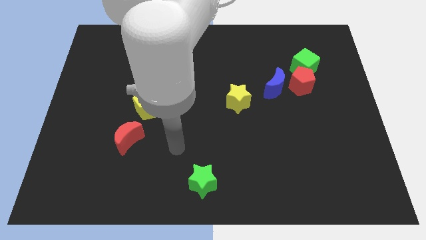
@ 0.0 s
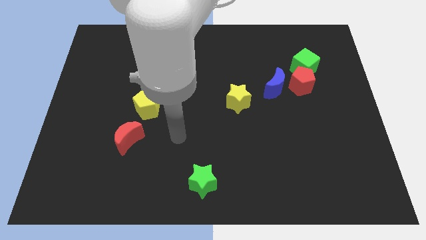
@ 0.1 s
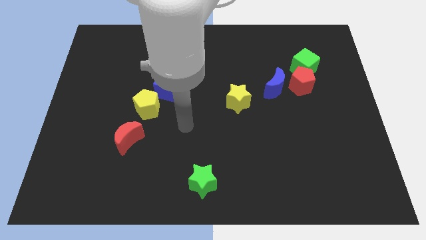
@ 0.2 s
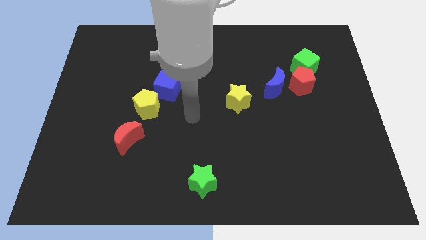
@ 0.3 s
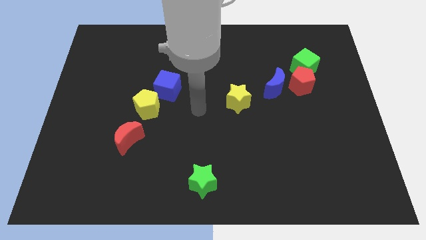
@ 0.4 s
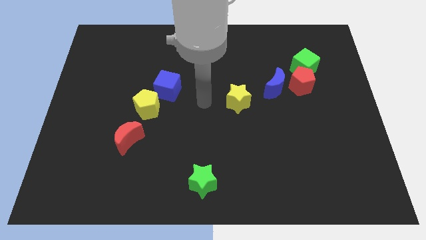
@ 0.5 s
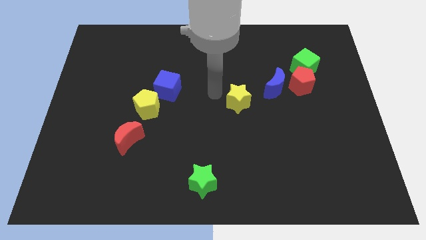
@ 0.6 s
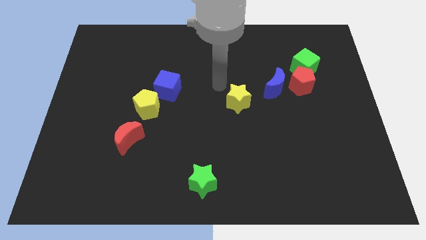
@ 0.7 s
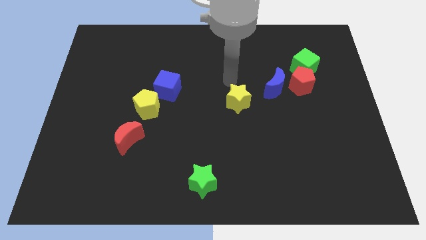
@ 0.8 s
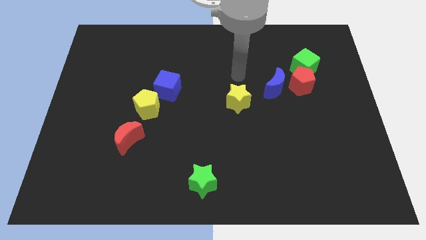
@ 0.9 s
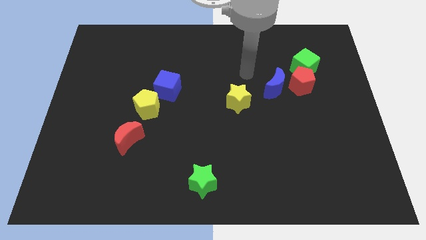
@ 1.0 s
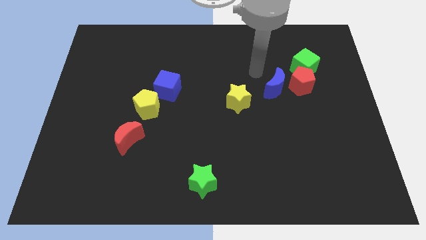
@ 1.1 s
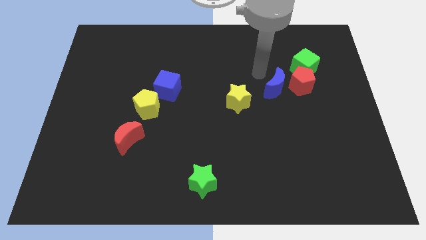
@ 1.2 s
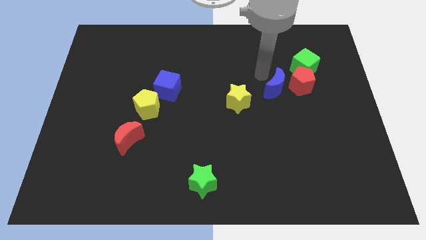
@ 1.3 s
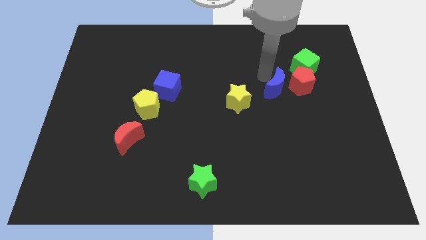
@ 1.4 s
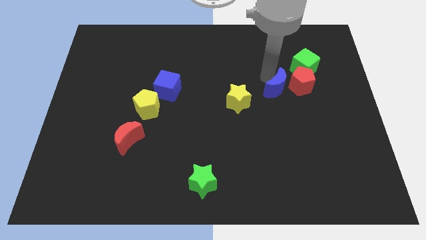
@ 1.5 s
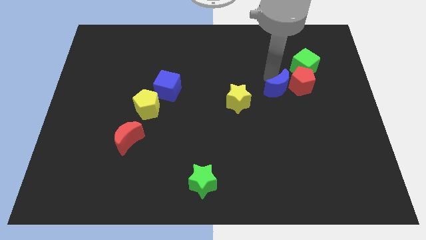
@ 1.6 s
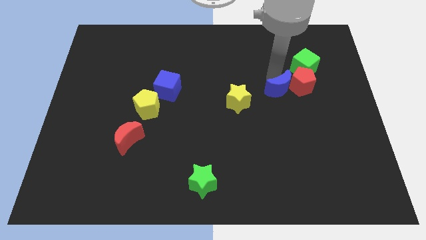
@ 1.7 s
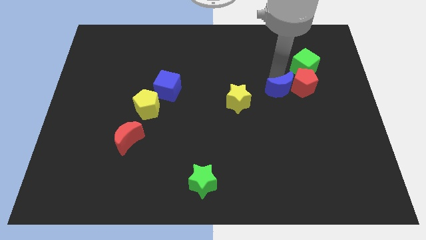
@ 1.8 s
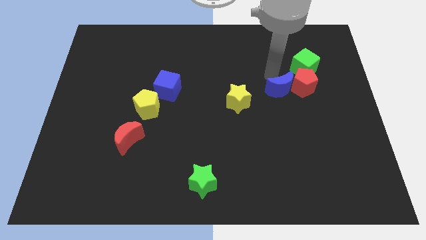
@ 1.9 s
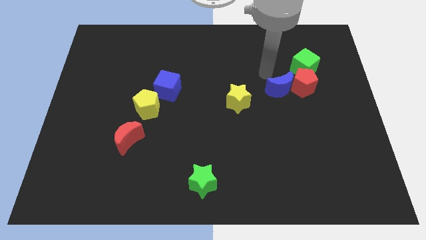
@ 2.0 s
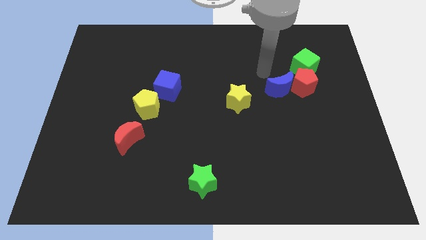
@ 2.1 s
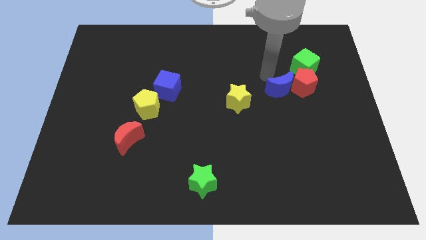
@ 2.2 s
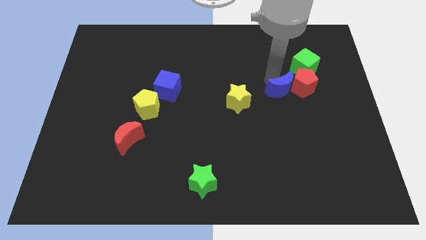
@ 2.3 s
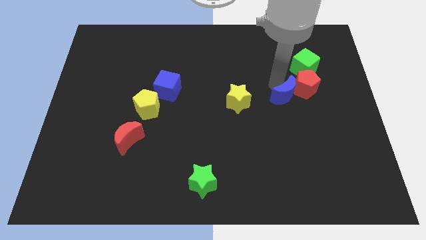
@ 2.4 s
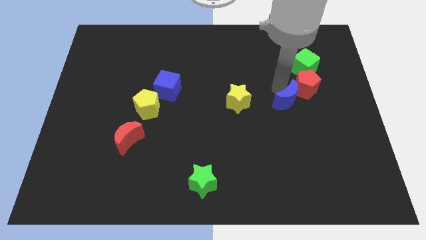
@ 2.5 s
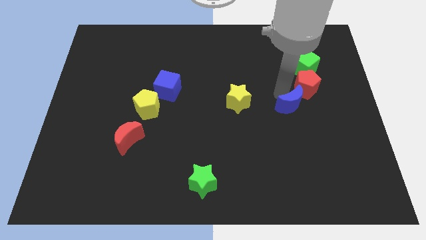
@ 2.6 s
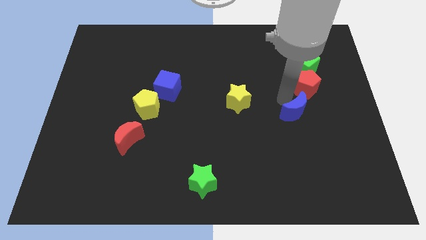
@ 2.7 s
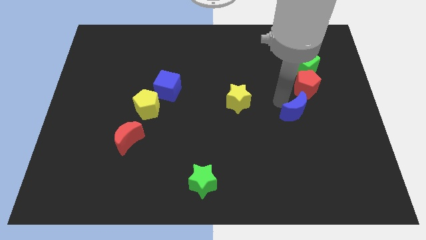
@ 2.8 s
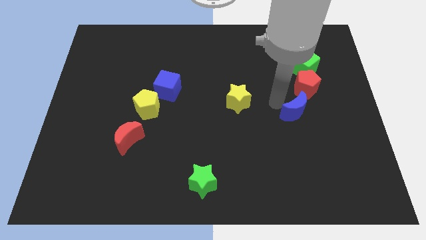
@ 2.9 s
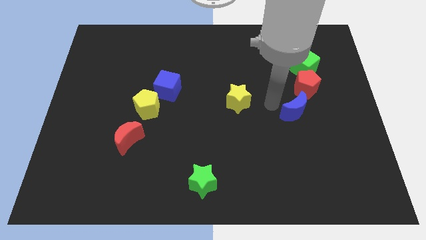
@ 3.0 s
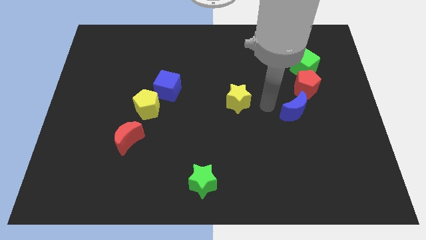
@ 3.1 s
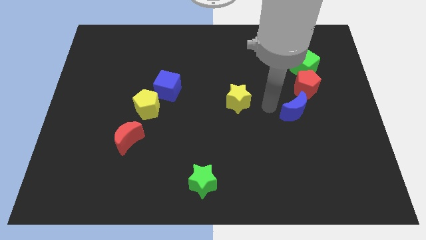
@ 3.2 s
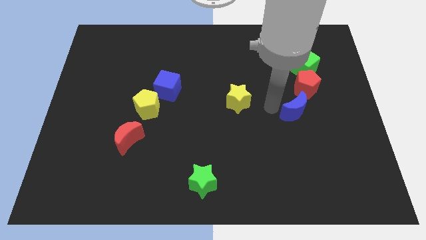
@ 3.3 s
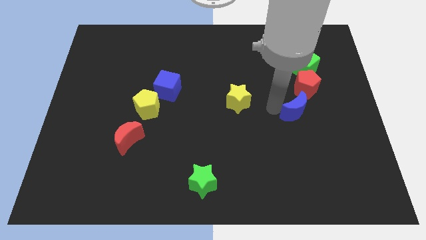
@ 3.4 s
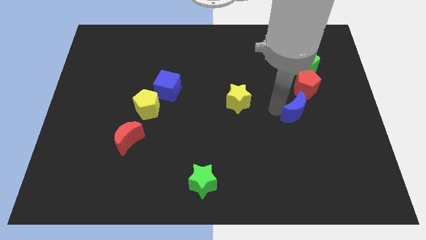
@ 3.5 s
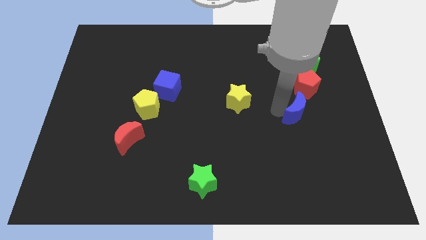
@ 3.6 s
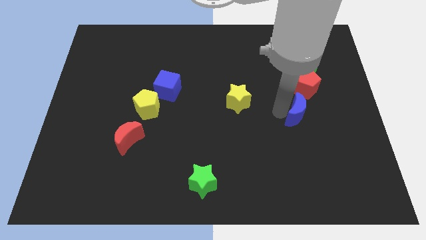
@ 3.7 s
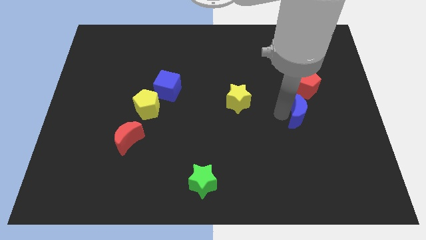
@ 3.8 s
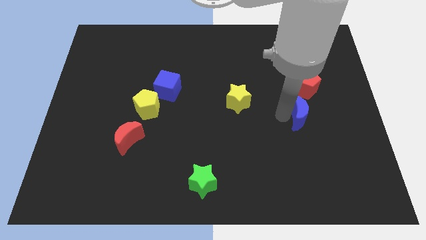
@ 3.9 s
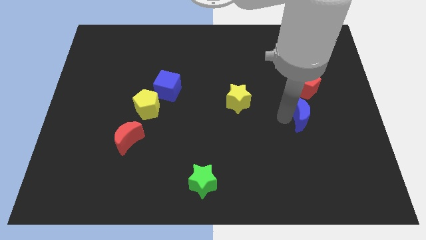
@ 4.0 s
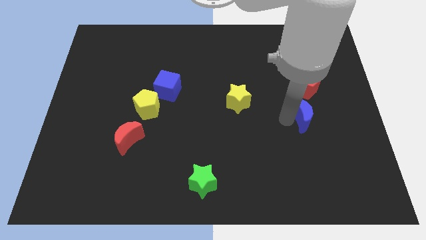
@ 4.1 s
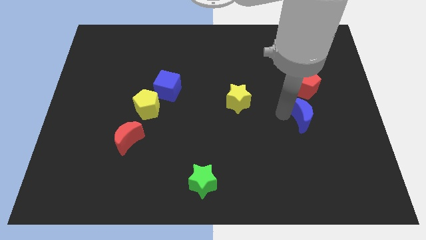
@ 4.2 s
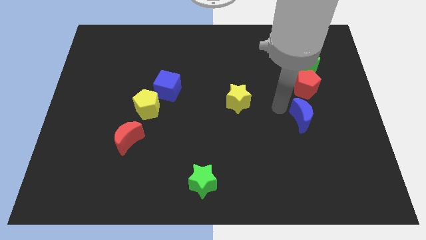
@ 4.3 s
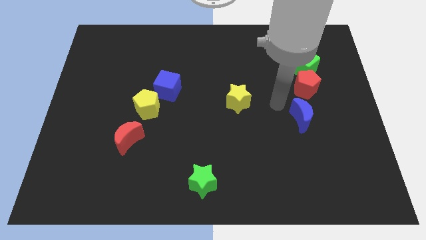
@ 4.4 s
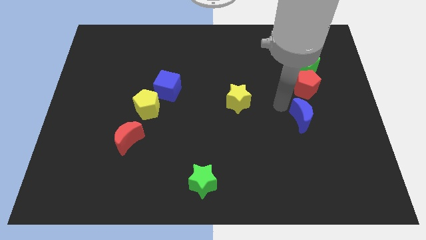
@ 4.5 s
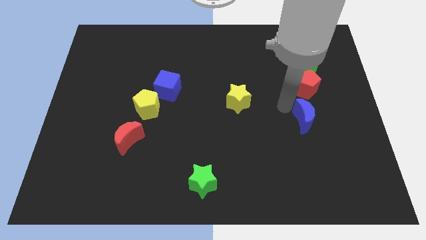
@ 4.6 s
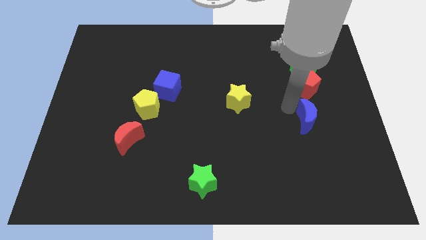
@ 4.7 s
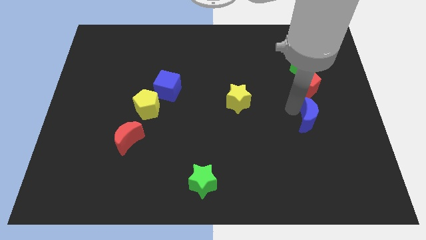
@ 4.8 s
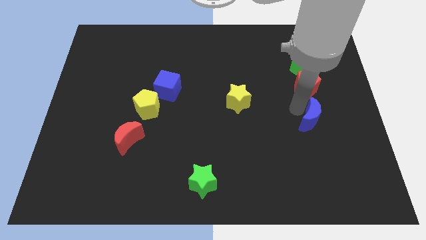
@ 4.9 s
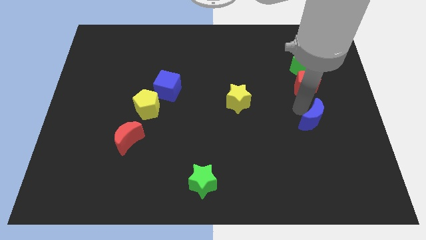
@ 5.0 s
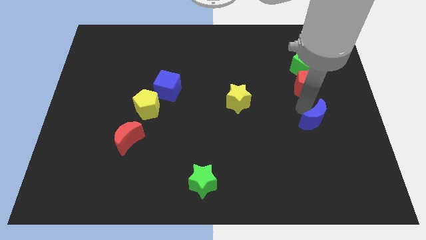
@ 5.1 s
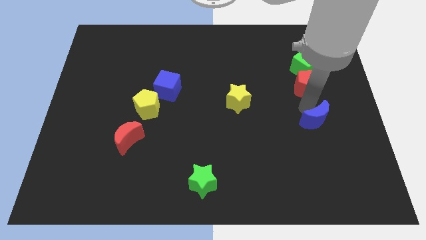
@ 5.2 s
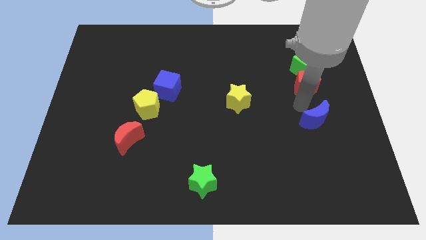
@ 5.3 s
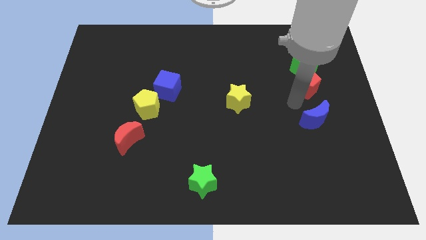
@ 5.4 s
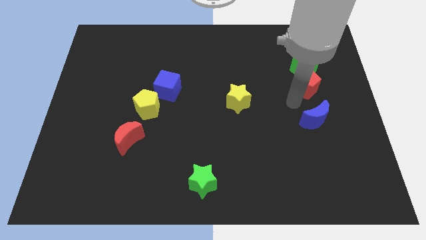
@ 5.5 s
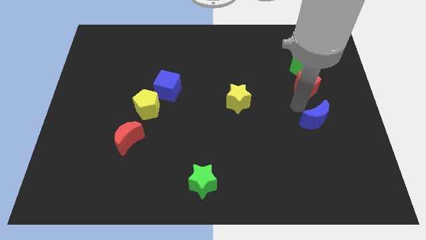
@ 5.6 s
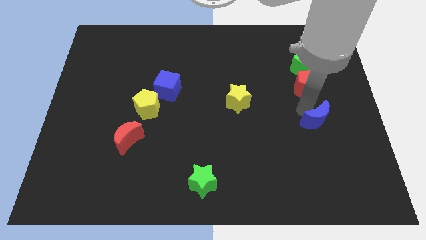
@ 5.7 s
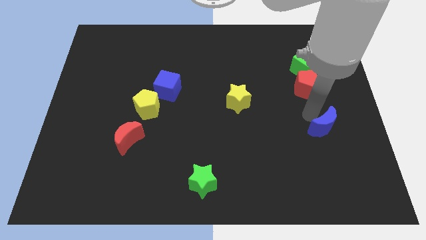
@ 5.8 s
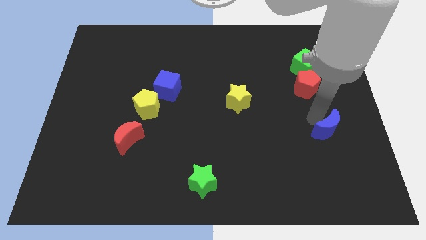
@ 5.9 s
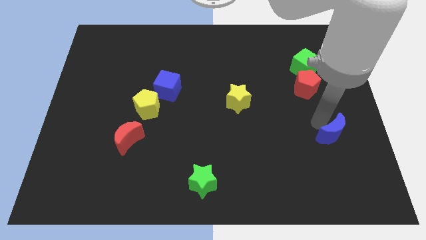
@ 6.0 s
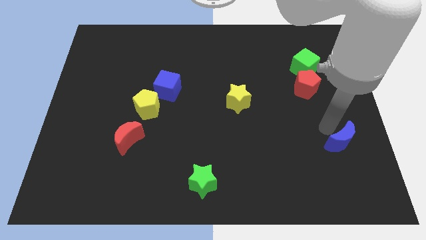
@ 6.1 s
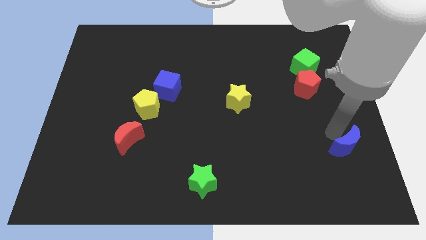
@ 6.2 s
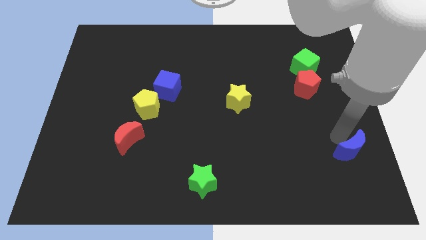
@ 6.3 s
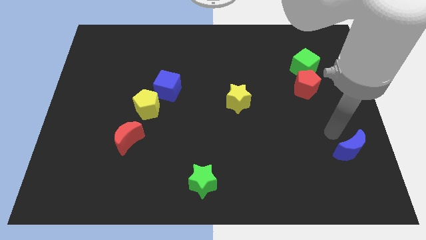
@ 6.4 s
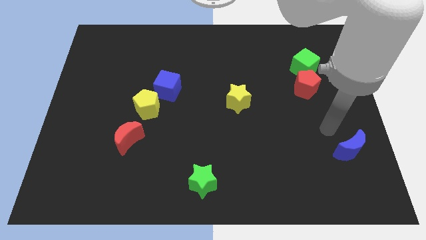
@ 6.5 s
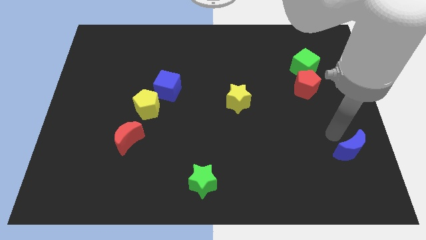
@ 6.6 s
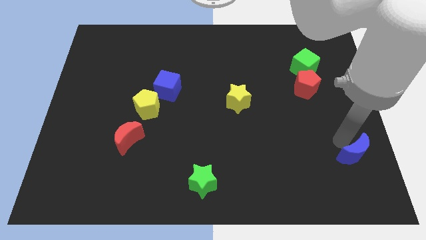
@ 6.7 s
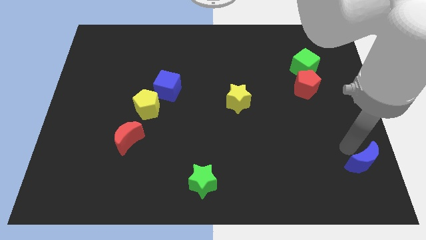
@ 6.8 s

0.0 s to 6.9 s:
move the blue moon to the bottom right
